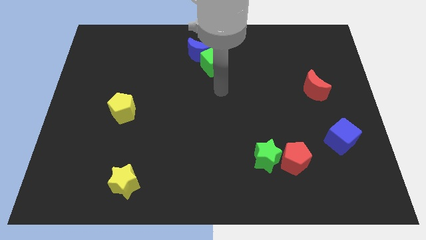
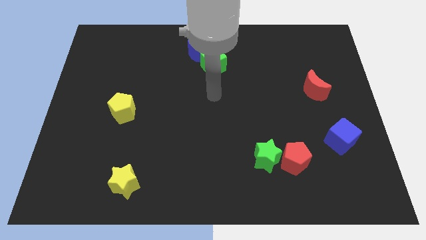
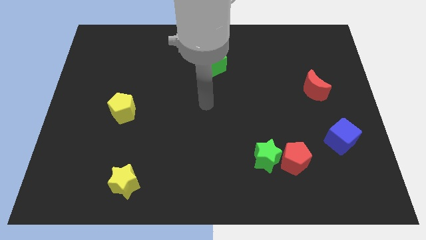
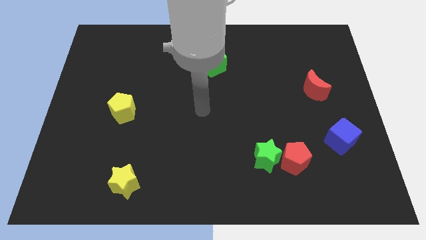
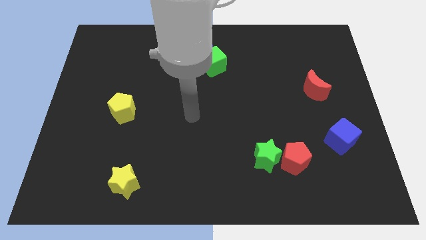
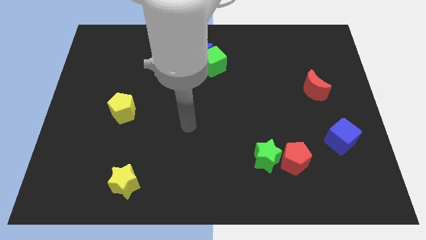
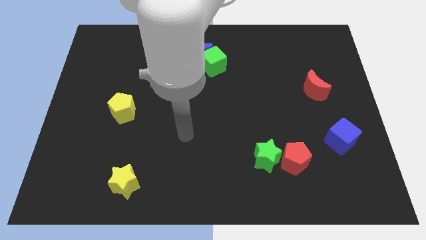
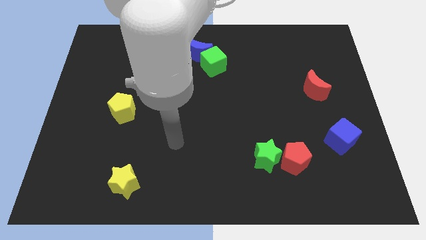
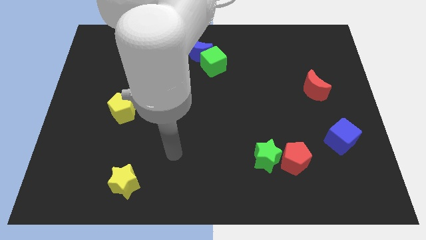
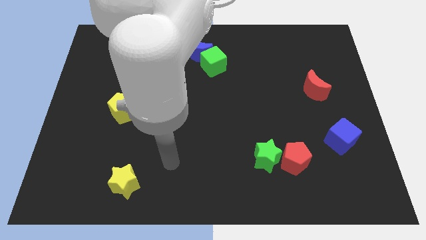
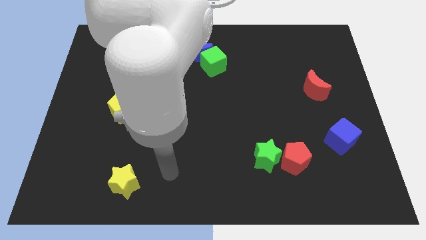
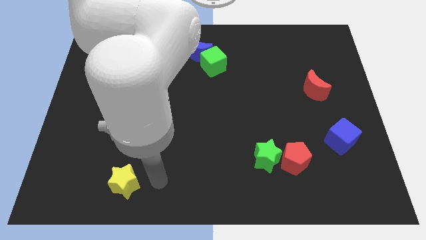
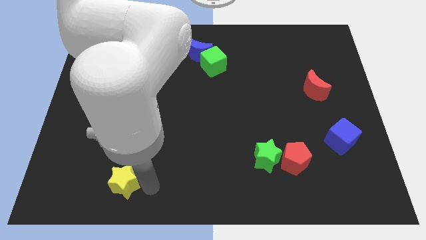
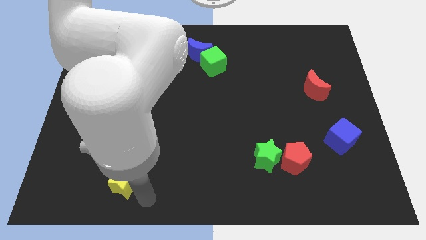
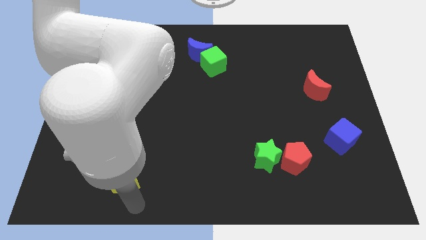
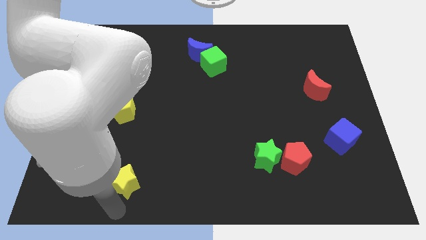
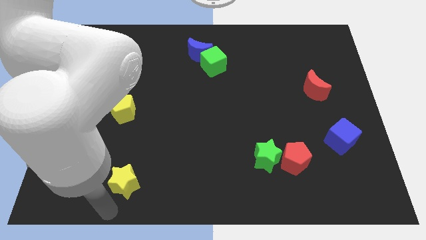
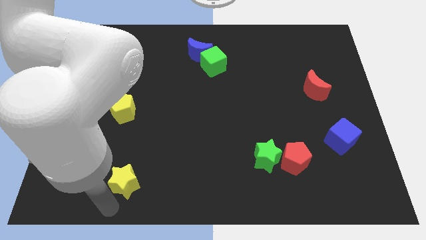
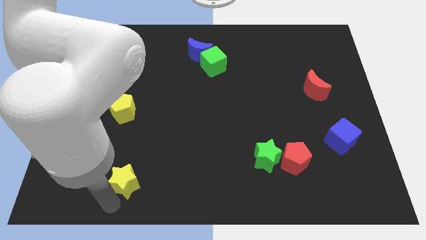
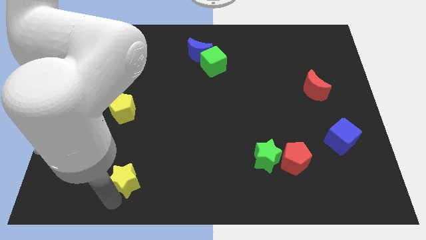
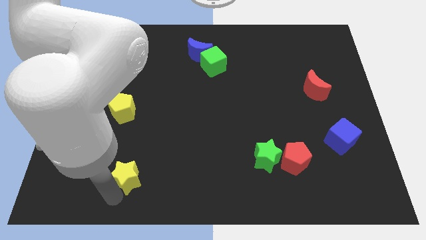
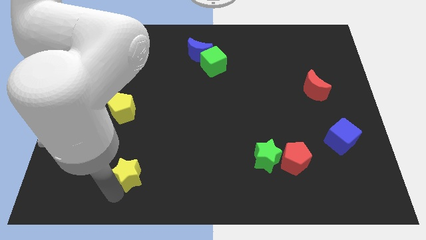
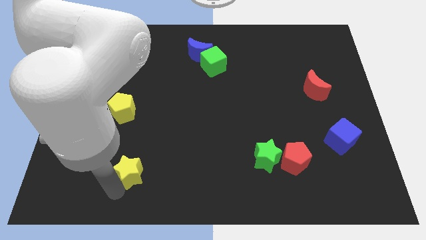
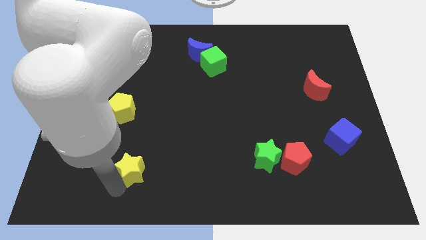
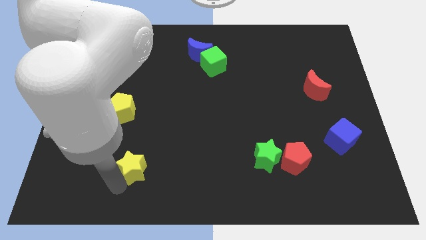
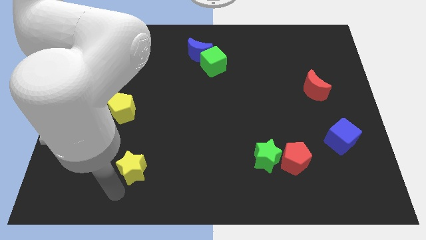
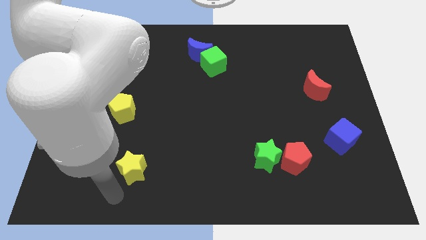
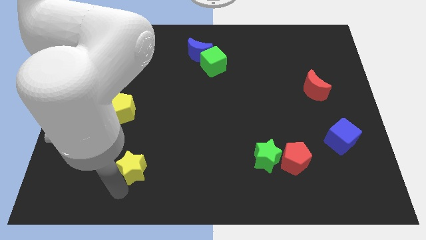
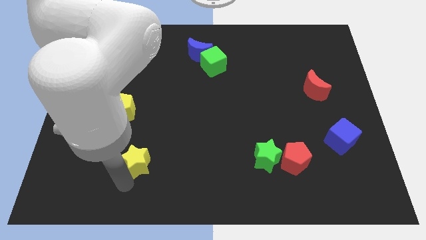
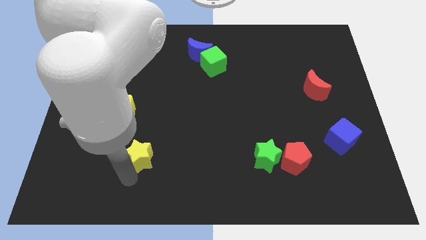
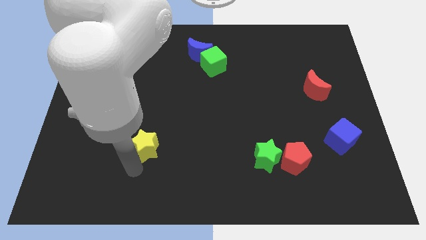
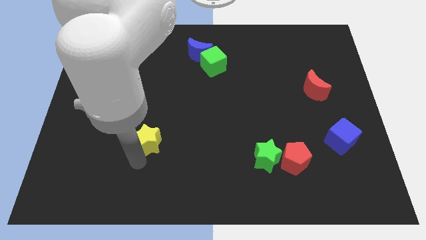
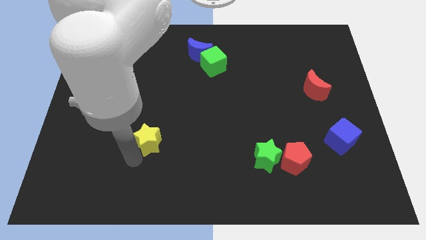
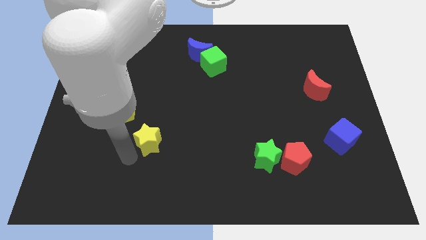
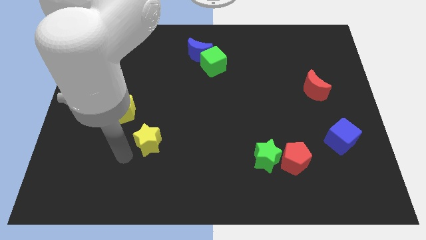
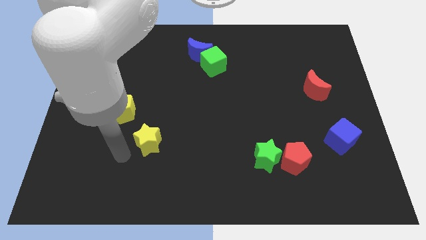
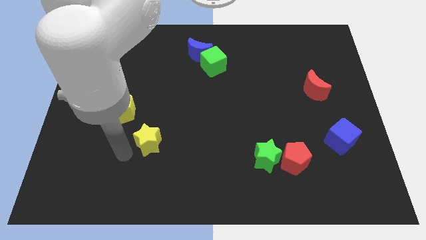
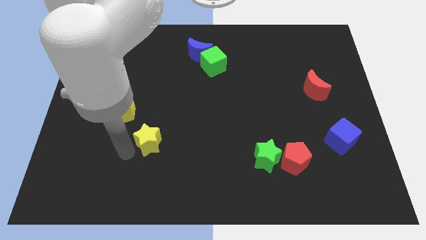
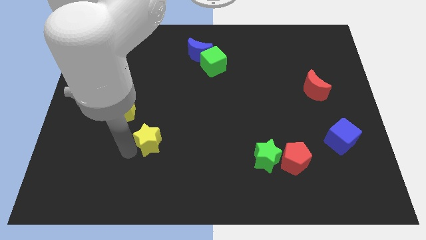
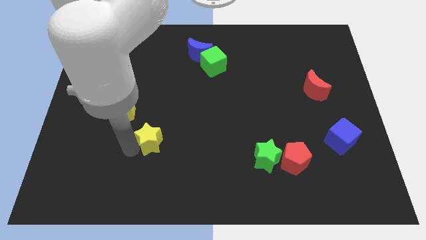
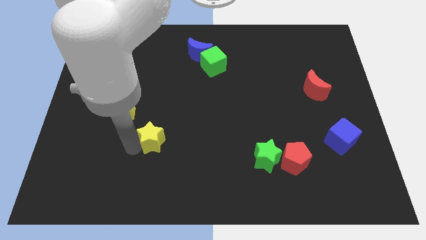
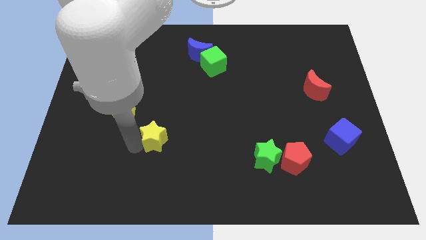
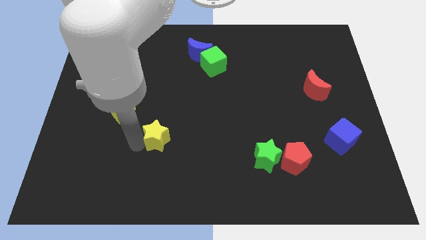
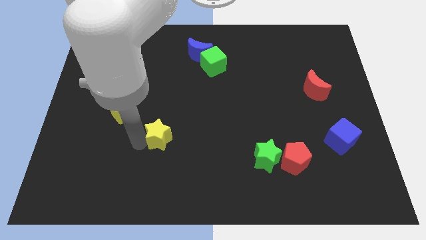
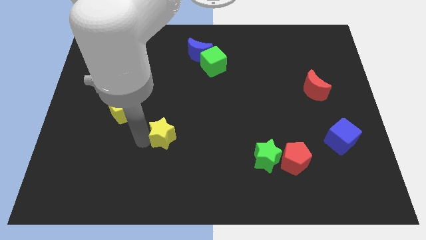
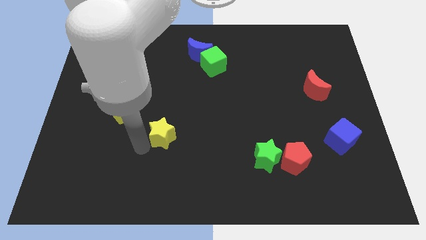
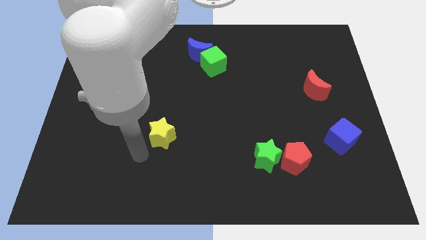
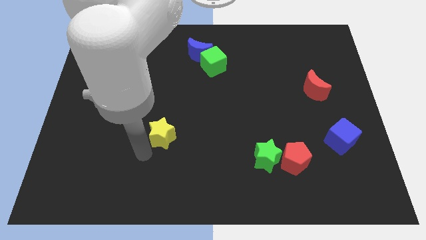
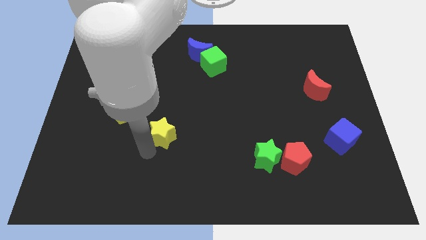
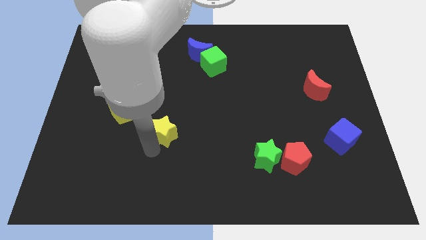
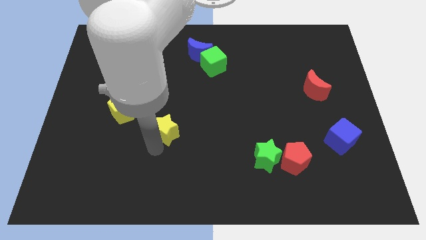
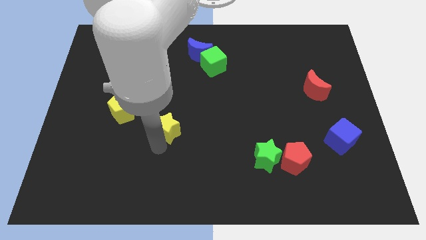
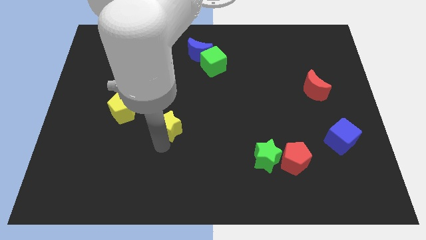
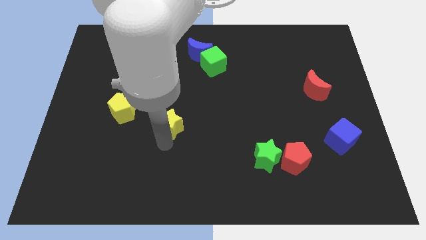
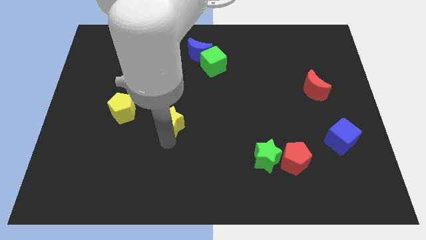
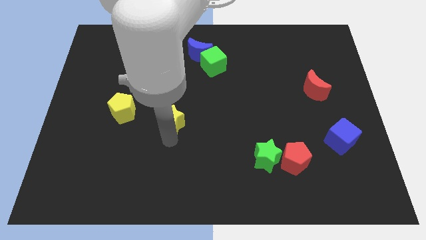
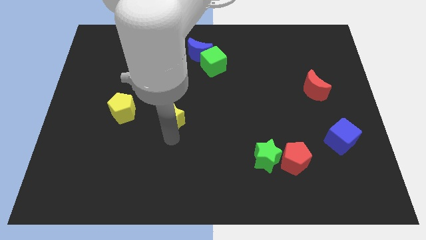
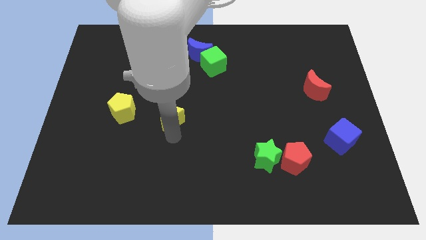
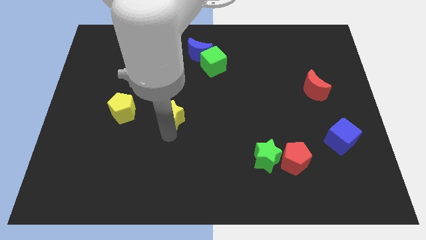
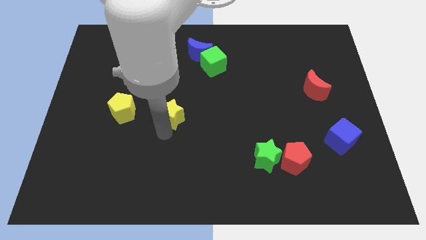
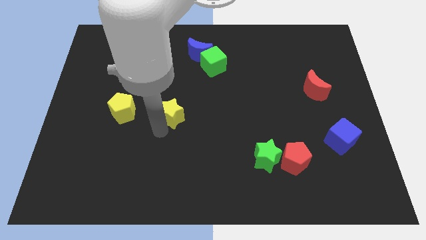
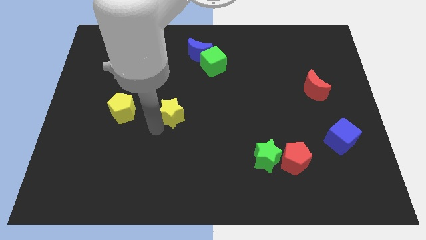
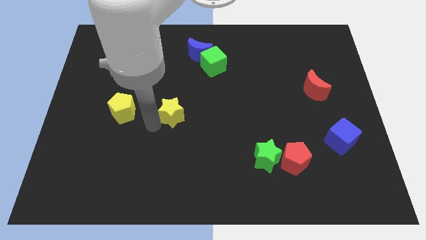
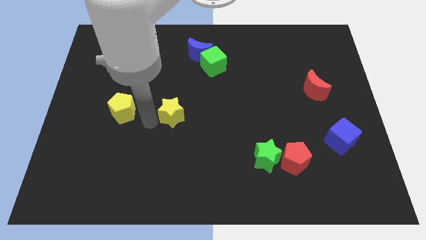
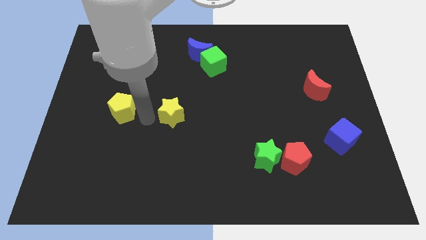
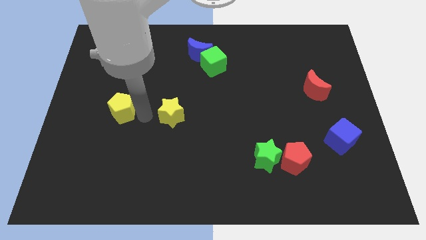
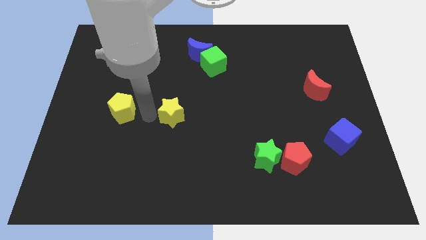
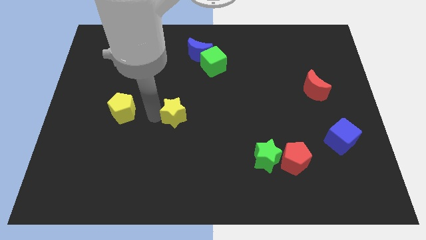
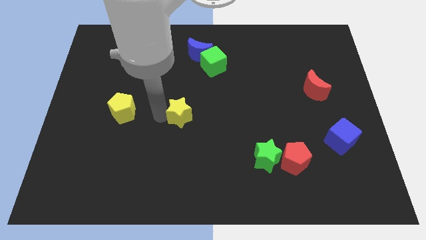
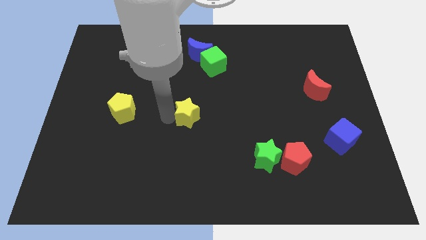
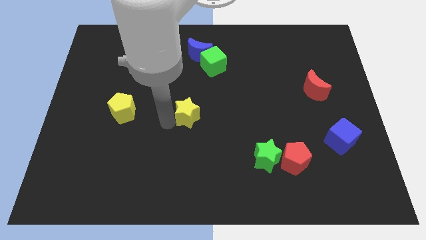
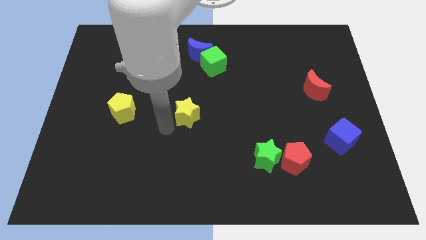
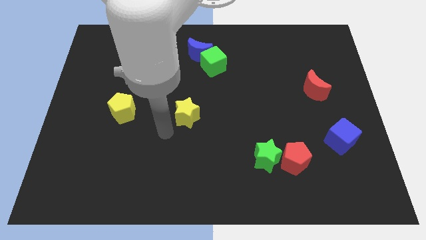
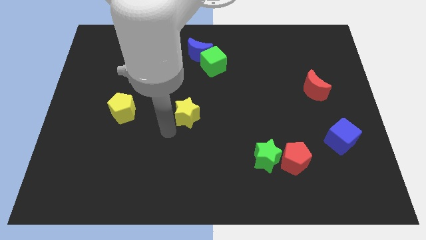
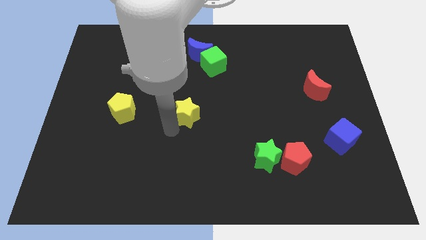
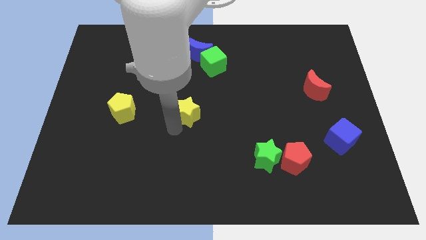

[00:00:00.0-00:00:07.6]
move the yellow star up and to the right diagonally

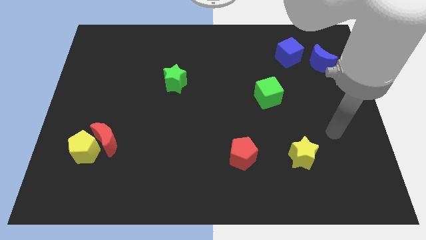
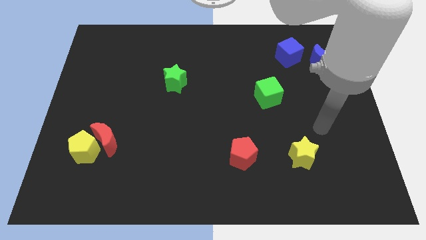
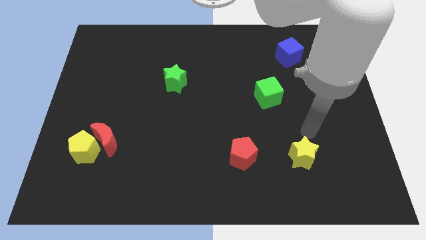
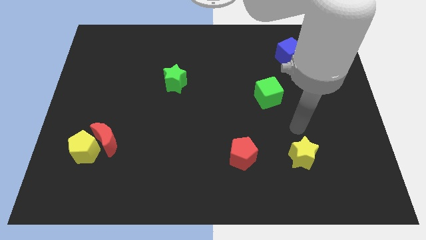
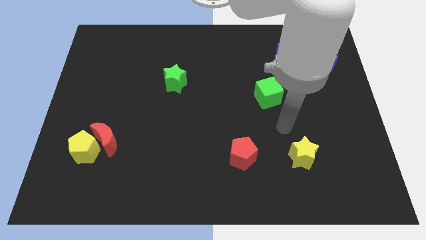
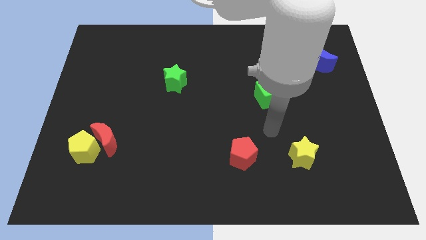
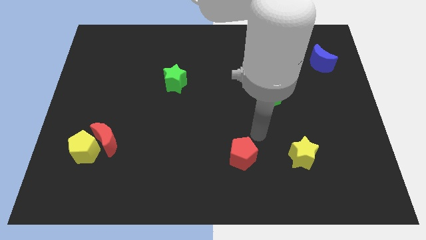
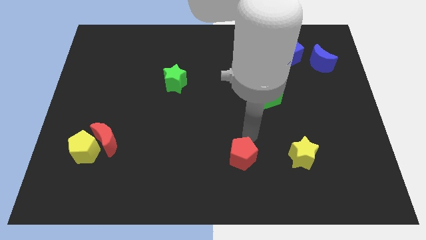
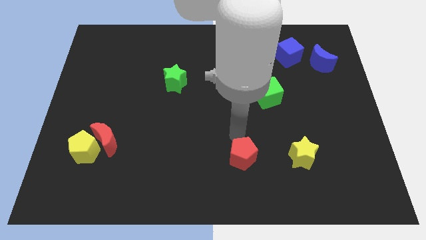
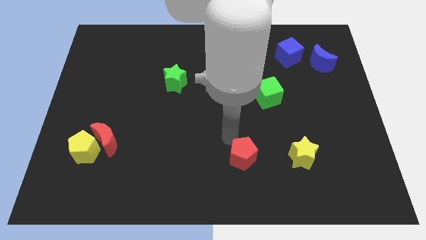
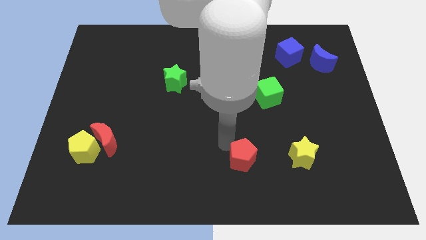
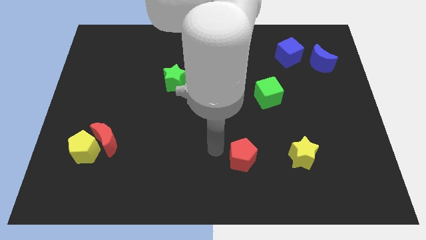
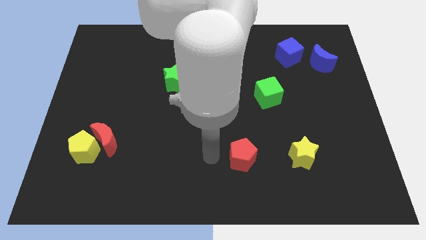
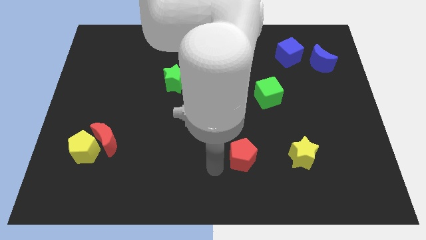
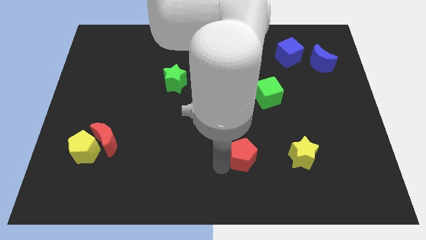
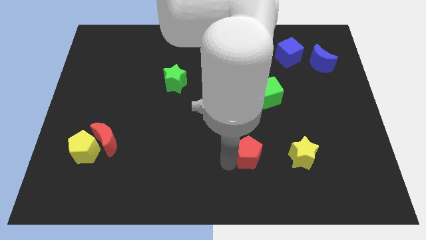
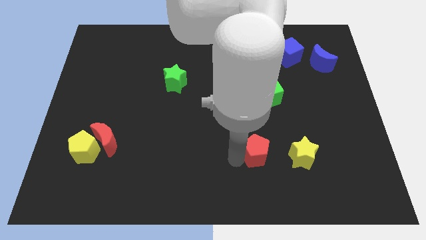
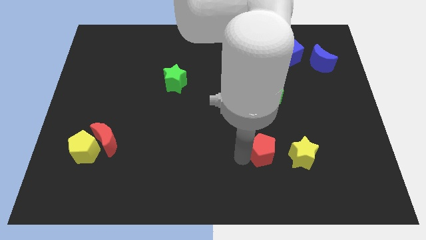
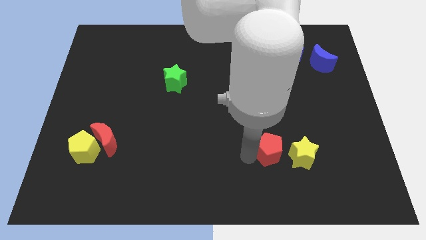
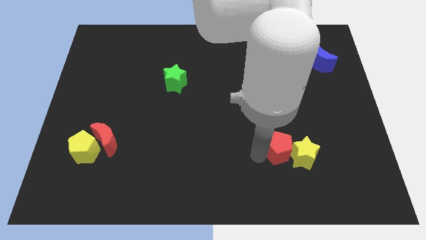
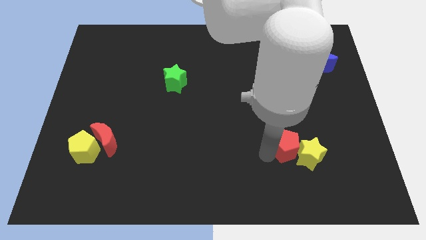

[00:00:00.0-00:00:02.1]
move the red pentagon diagonally up and right somewhat
